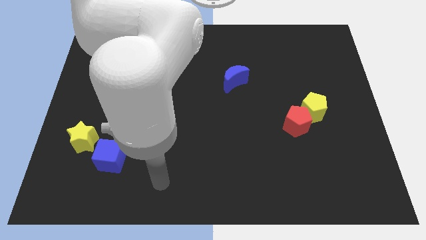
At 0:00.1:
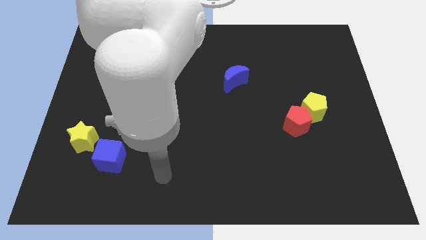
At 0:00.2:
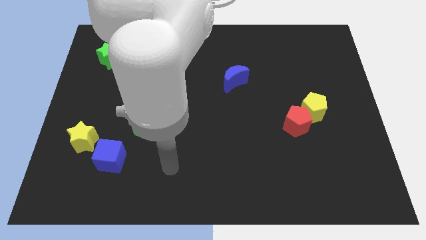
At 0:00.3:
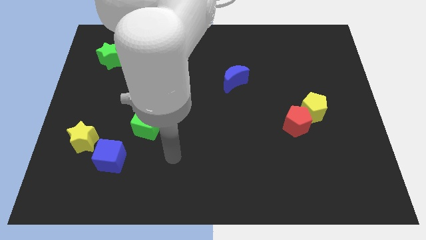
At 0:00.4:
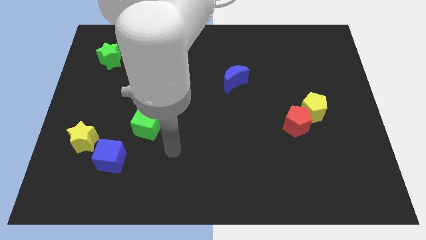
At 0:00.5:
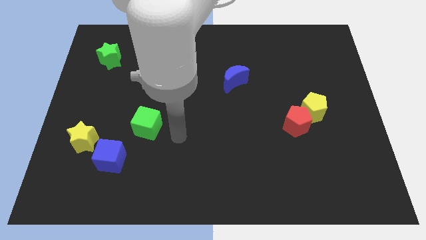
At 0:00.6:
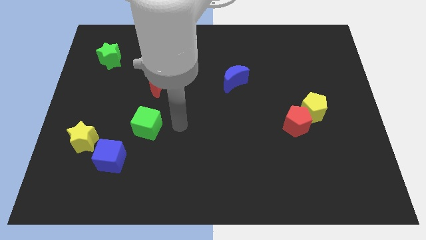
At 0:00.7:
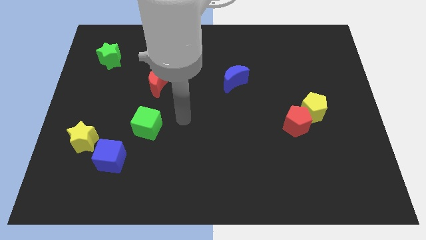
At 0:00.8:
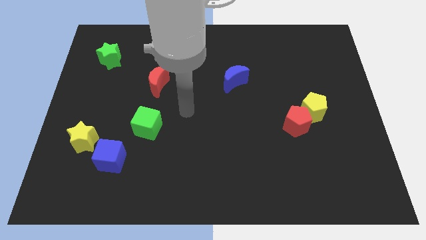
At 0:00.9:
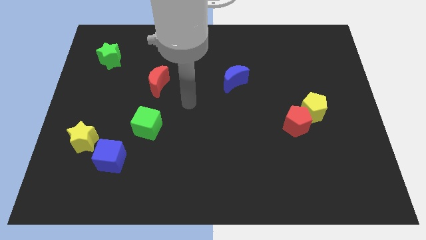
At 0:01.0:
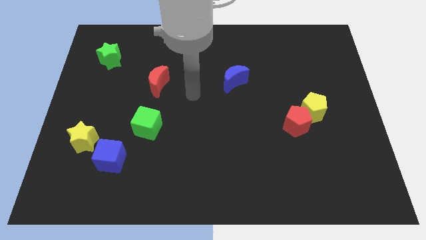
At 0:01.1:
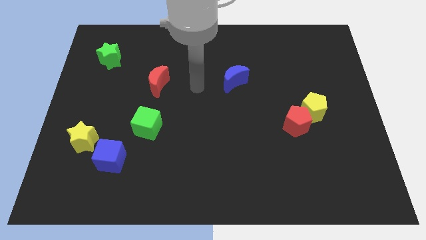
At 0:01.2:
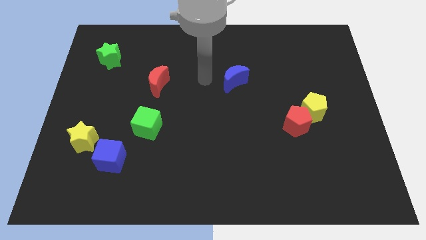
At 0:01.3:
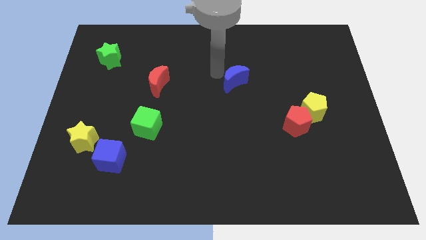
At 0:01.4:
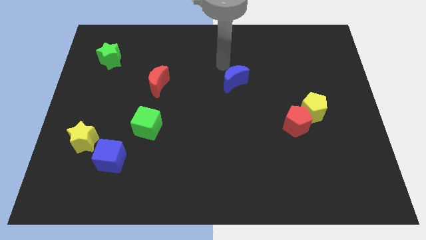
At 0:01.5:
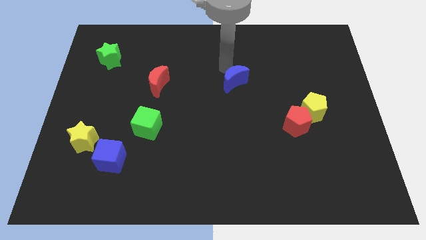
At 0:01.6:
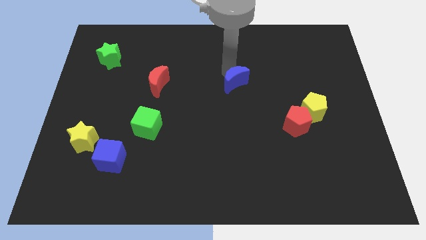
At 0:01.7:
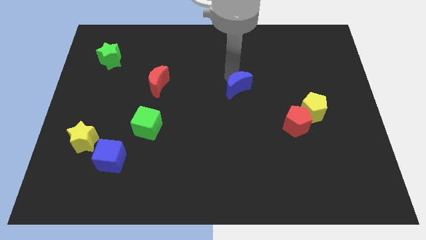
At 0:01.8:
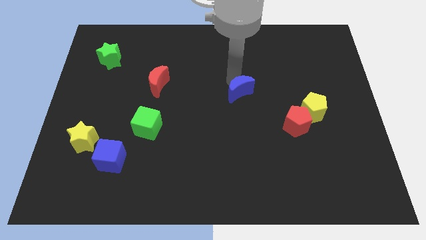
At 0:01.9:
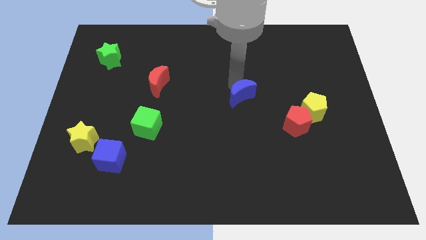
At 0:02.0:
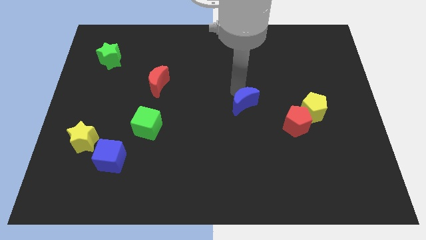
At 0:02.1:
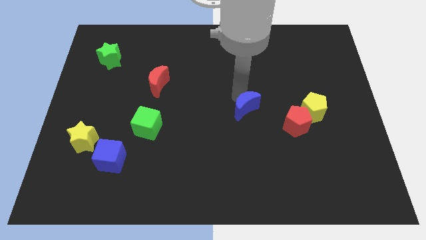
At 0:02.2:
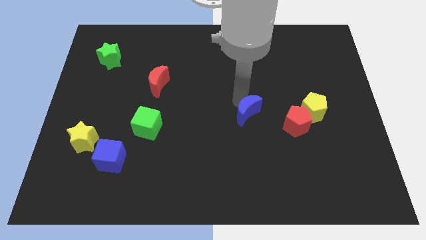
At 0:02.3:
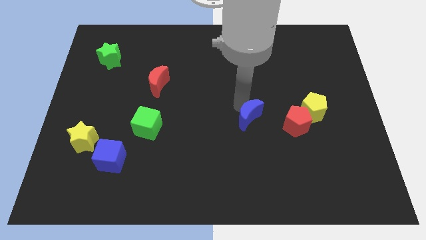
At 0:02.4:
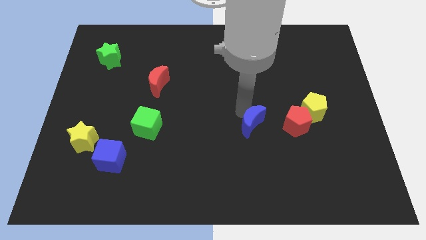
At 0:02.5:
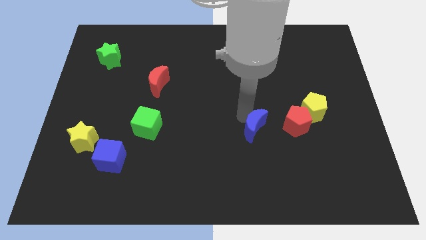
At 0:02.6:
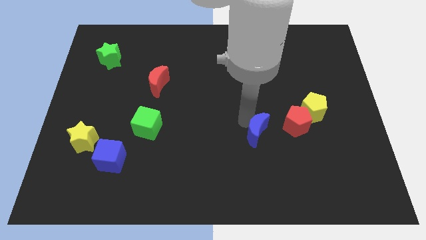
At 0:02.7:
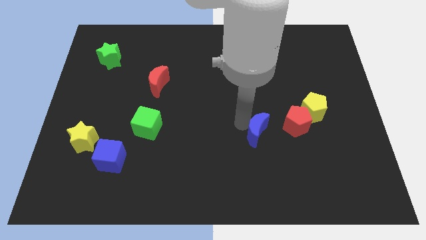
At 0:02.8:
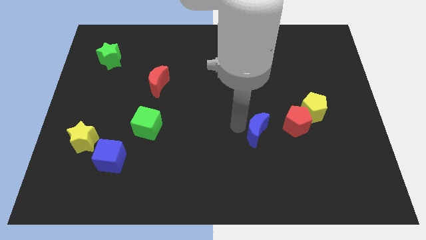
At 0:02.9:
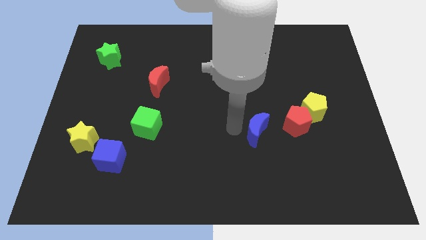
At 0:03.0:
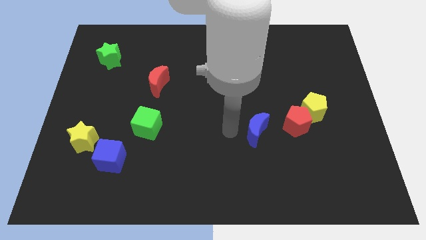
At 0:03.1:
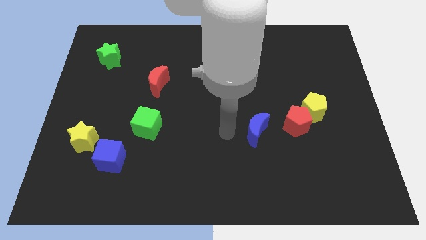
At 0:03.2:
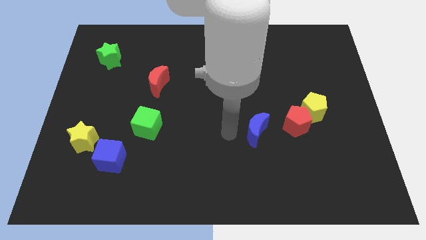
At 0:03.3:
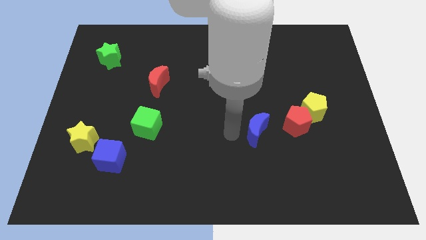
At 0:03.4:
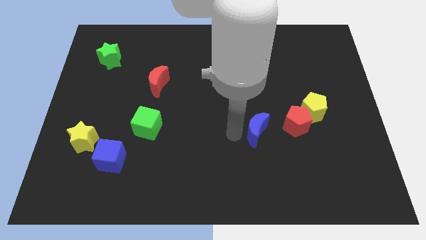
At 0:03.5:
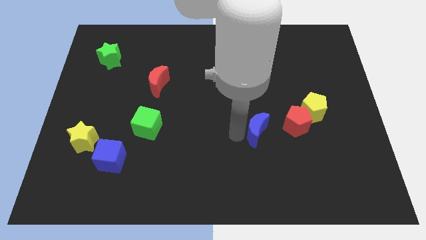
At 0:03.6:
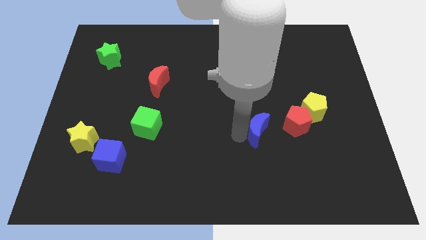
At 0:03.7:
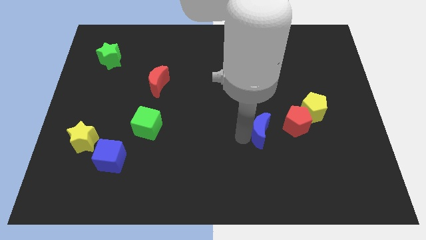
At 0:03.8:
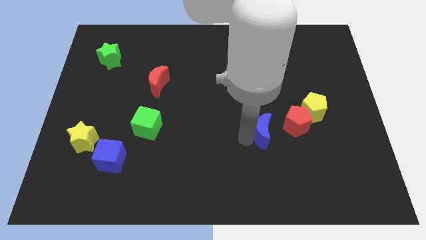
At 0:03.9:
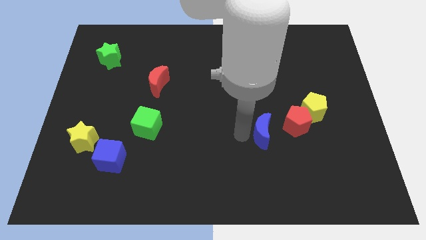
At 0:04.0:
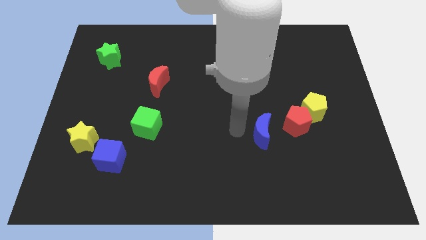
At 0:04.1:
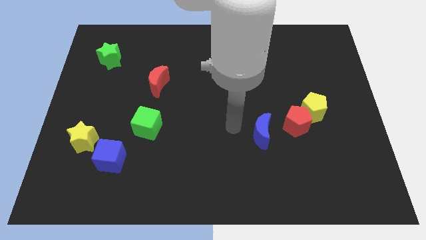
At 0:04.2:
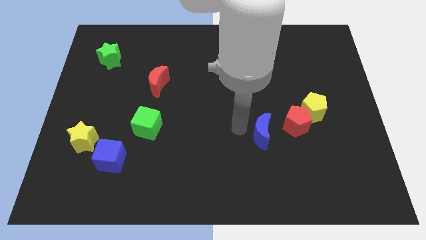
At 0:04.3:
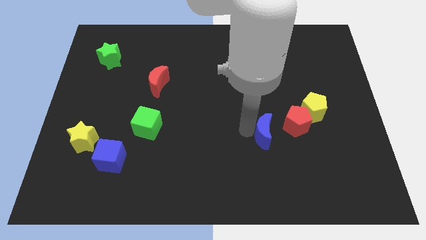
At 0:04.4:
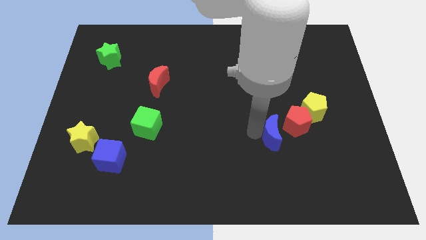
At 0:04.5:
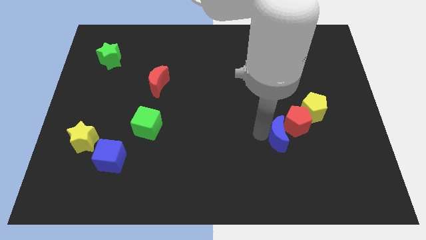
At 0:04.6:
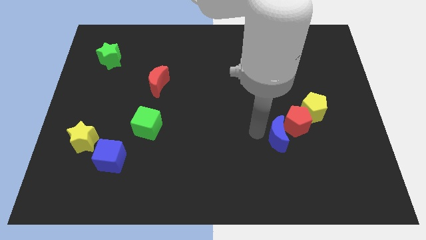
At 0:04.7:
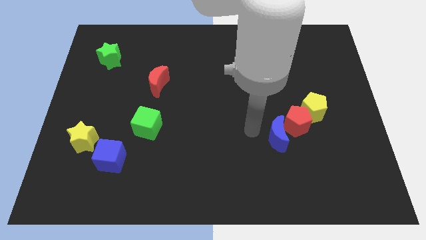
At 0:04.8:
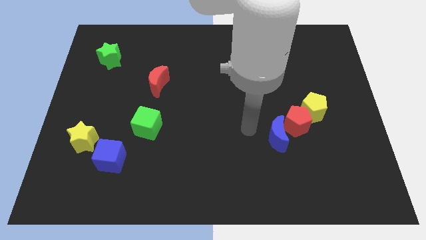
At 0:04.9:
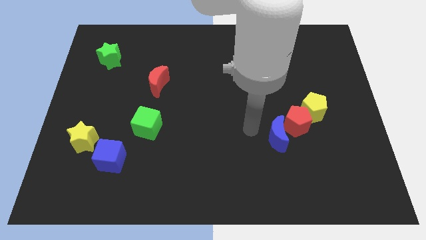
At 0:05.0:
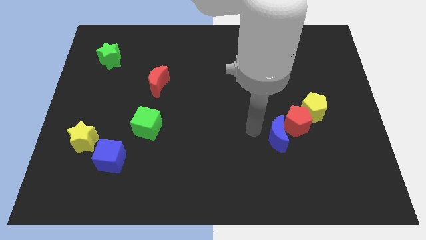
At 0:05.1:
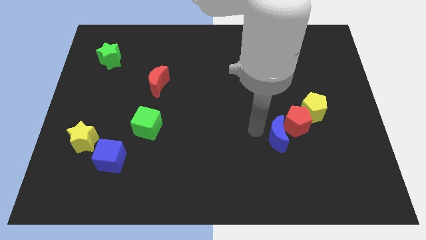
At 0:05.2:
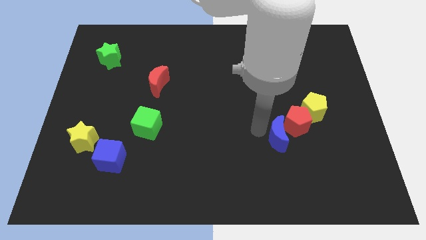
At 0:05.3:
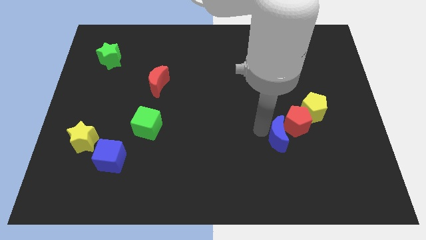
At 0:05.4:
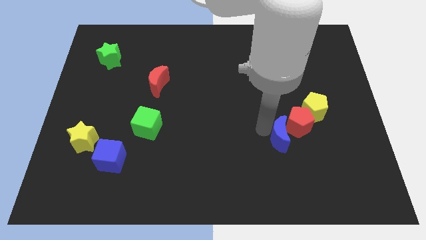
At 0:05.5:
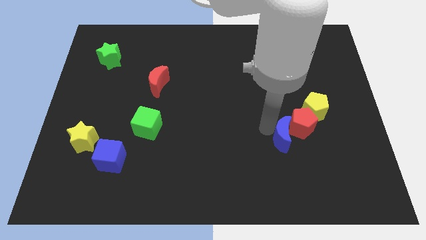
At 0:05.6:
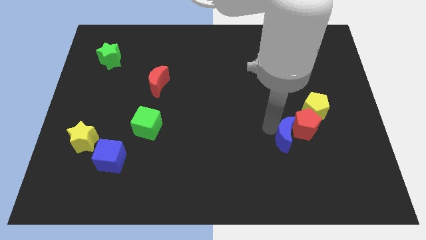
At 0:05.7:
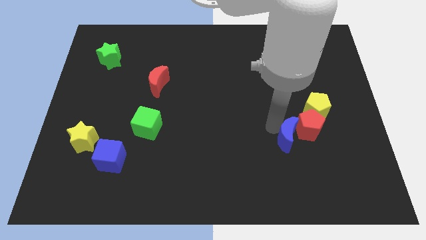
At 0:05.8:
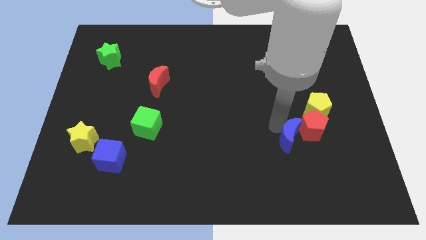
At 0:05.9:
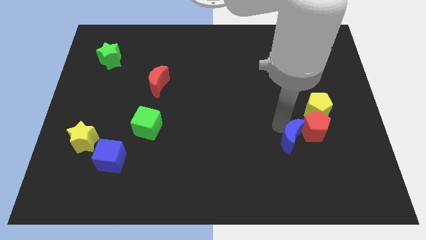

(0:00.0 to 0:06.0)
move the blue moon downwards and right

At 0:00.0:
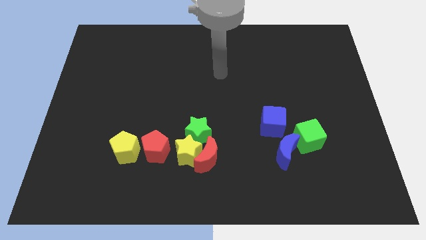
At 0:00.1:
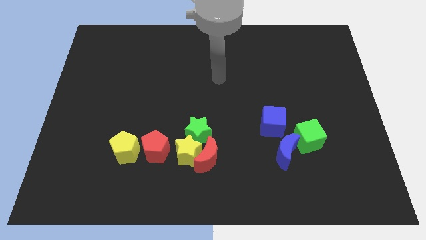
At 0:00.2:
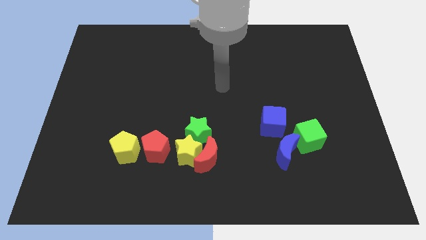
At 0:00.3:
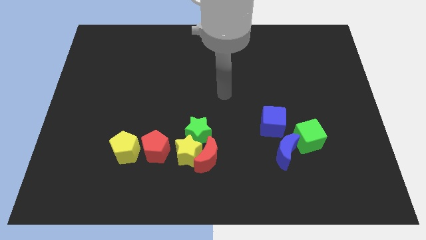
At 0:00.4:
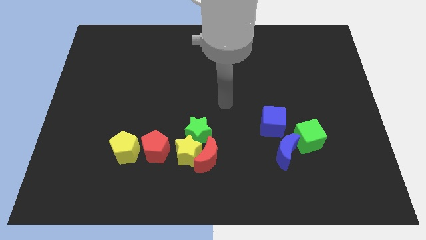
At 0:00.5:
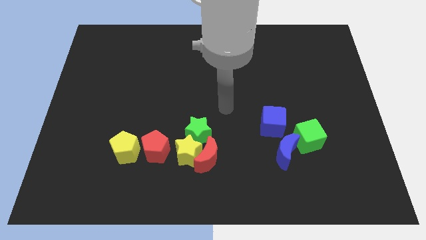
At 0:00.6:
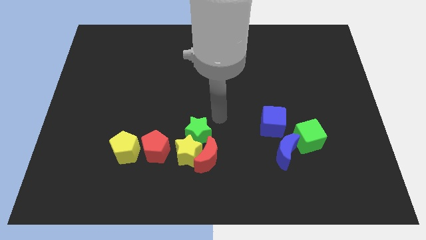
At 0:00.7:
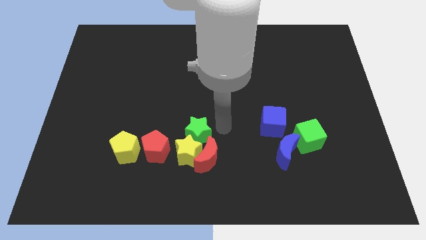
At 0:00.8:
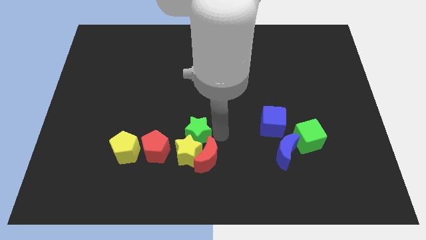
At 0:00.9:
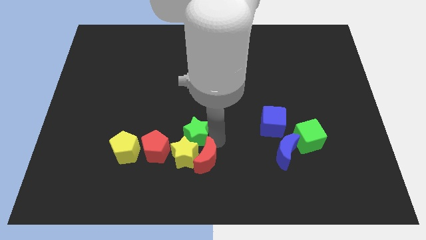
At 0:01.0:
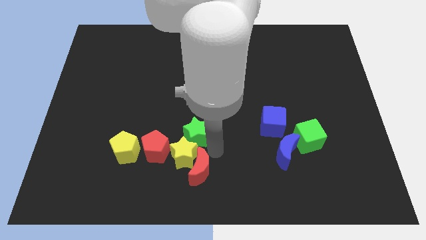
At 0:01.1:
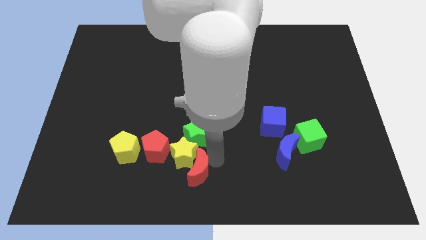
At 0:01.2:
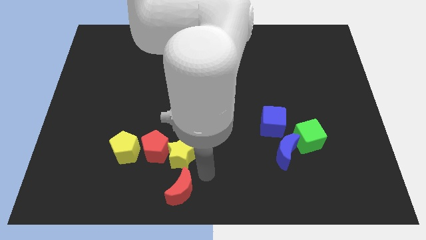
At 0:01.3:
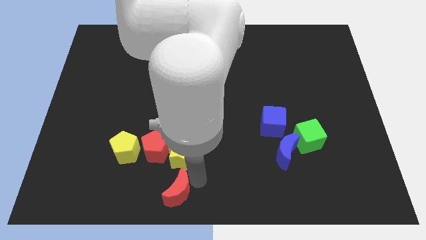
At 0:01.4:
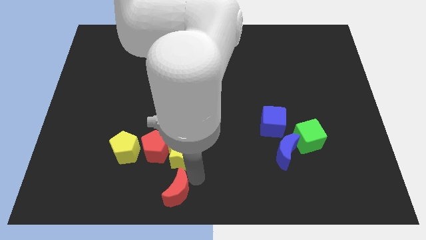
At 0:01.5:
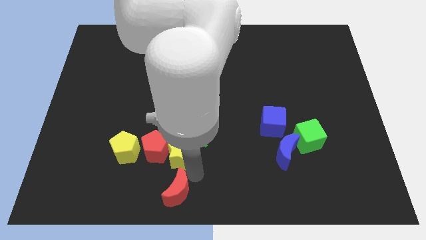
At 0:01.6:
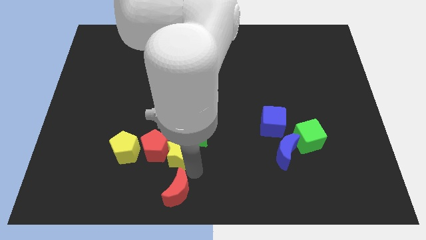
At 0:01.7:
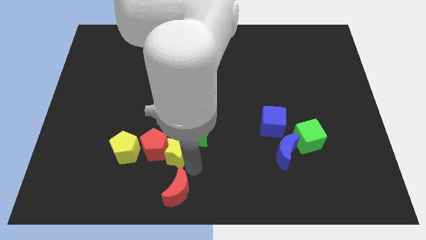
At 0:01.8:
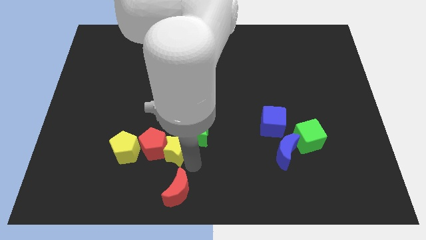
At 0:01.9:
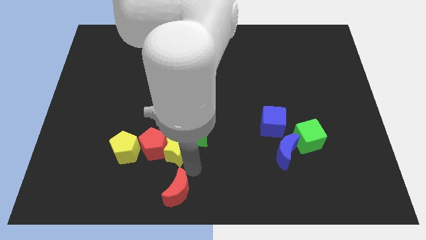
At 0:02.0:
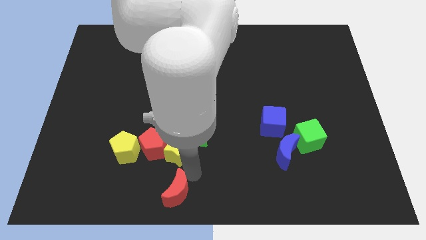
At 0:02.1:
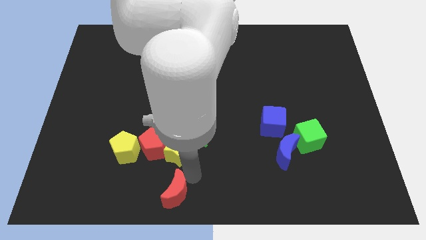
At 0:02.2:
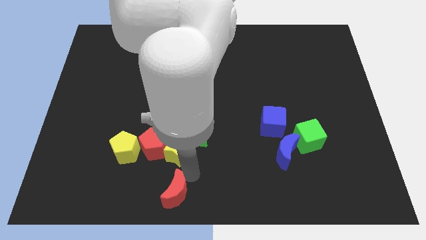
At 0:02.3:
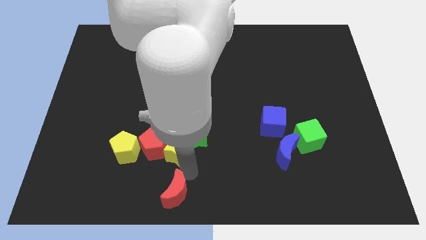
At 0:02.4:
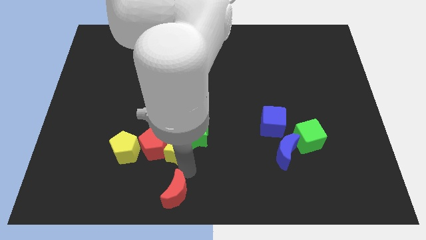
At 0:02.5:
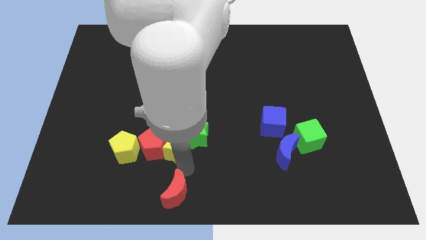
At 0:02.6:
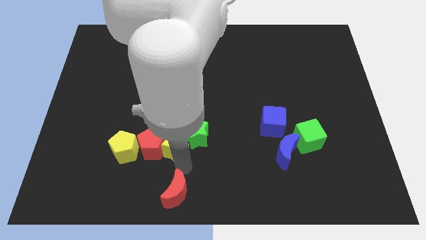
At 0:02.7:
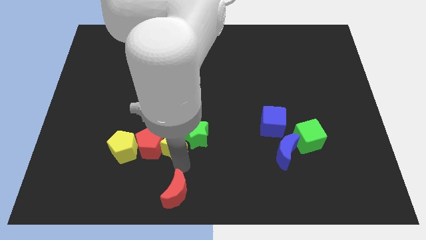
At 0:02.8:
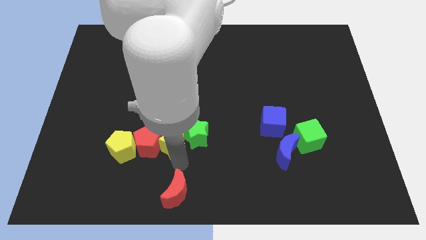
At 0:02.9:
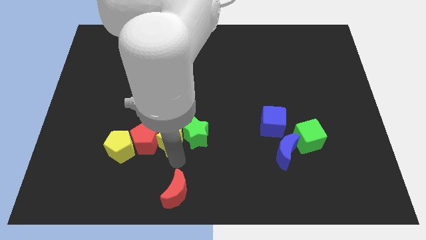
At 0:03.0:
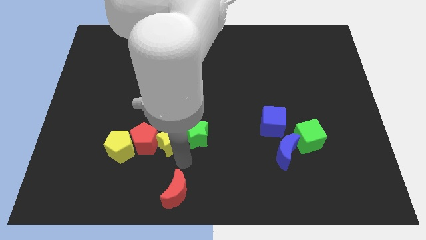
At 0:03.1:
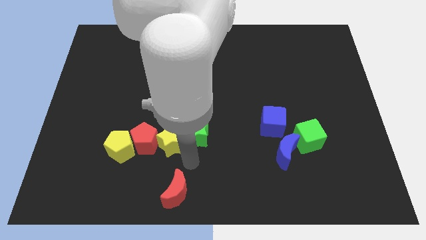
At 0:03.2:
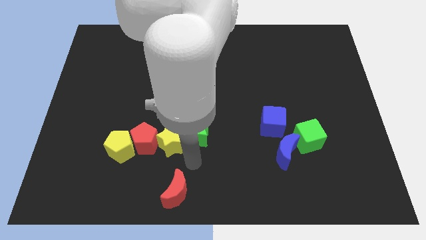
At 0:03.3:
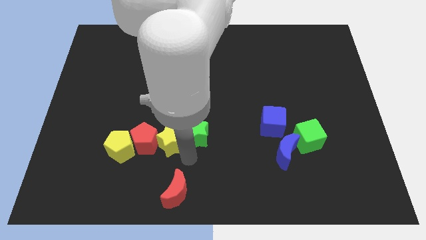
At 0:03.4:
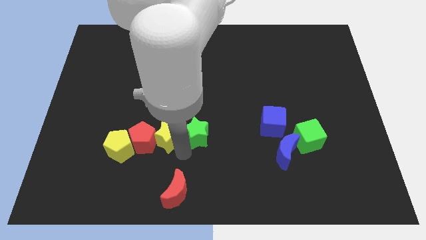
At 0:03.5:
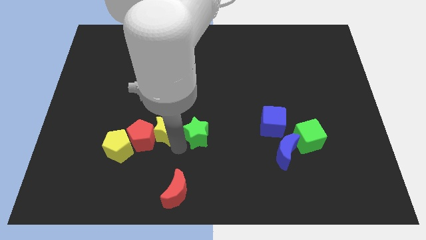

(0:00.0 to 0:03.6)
move the yellow star a little bit up and then left
